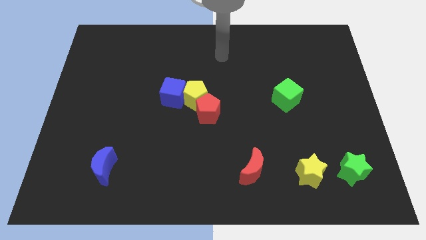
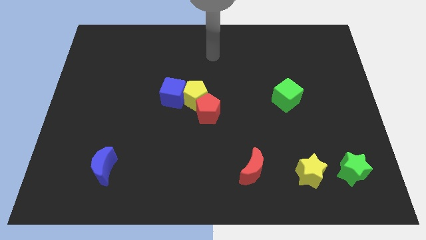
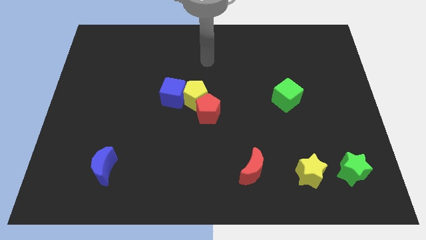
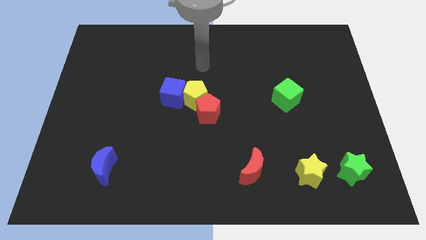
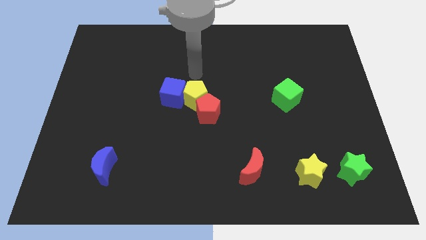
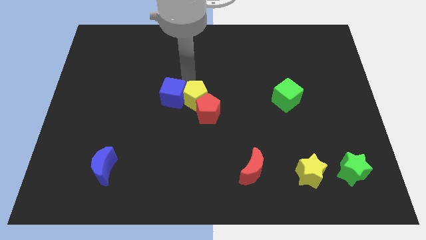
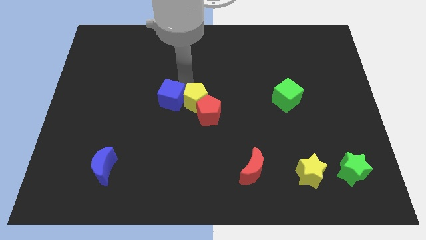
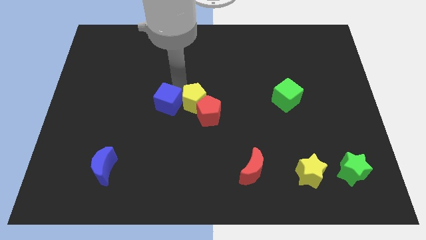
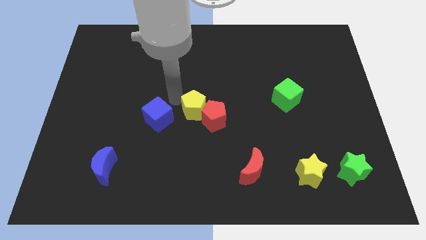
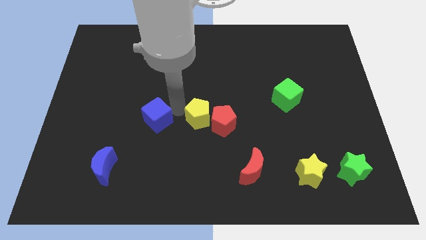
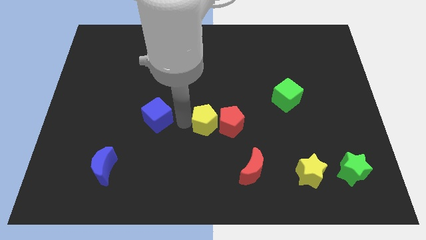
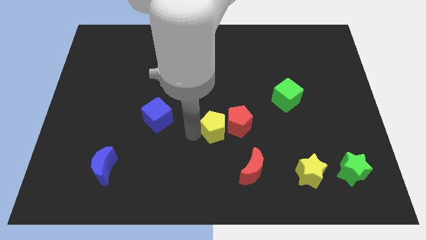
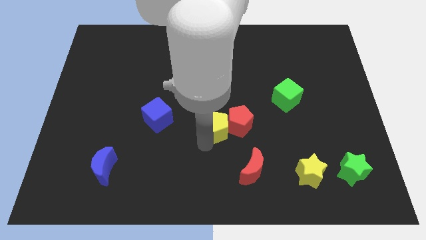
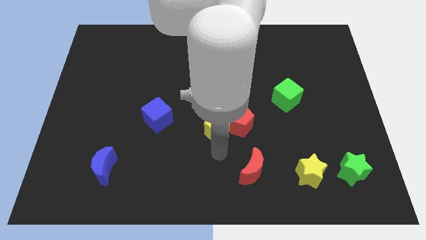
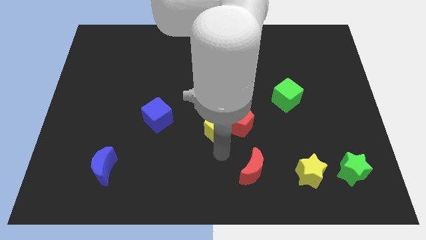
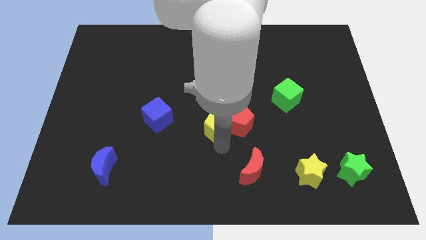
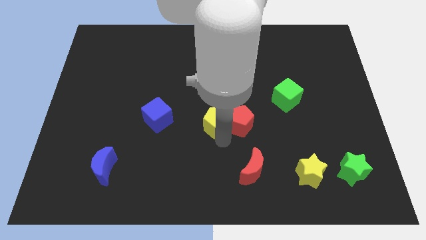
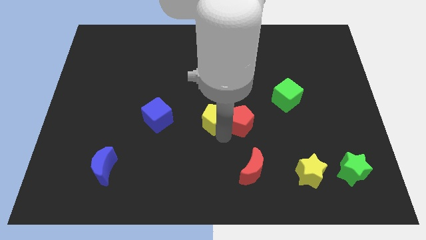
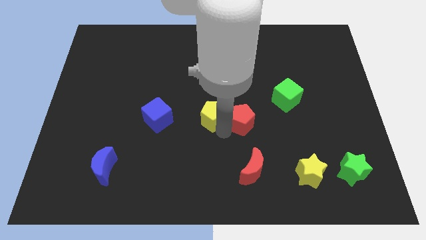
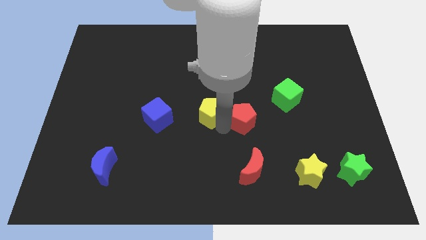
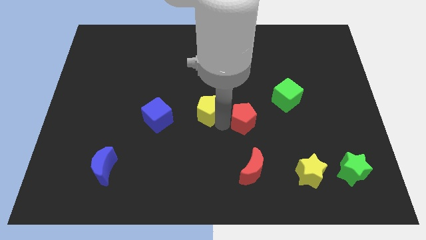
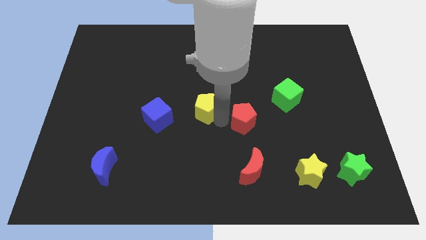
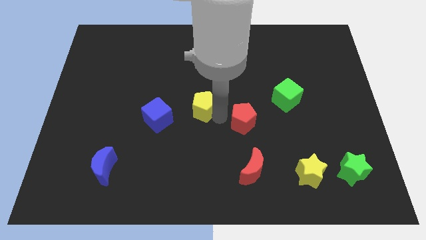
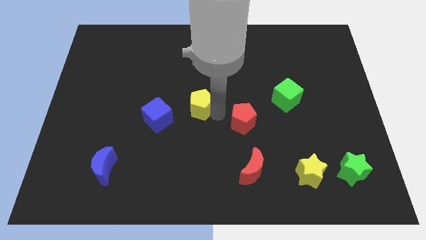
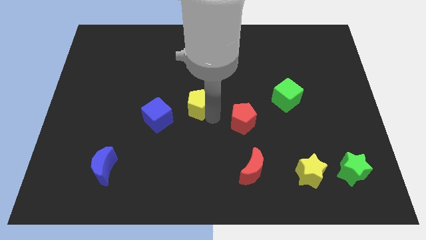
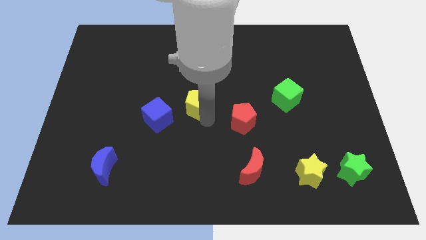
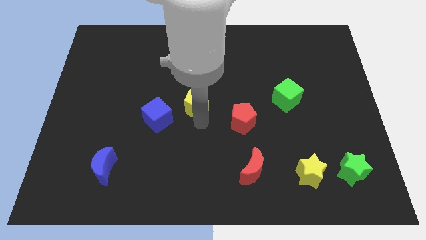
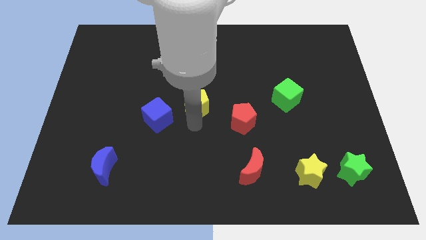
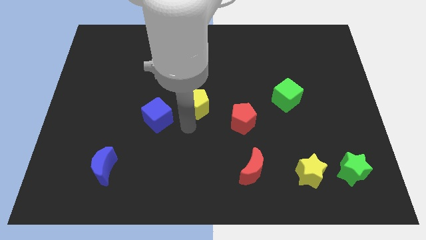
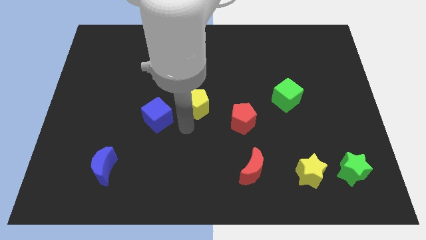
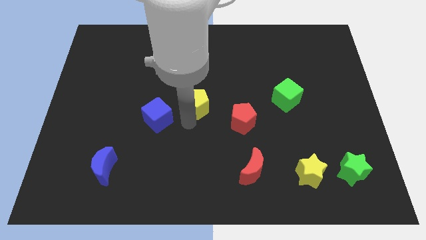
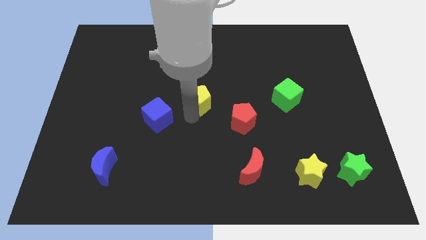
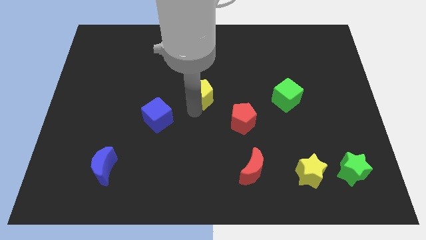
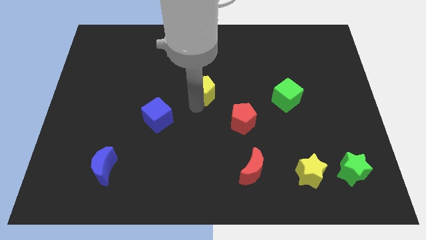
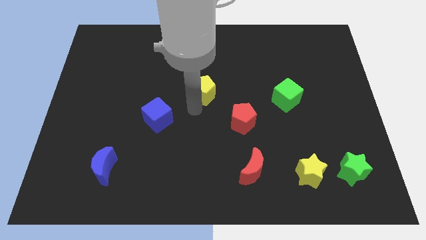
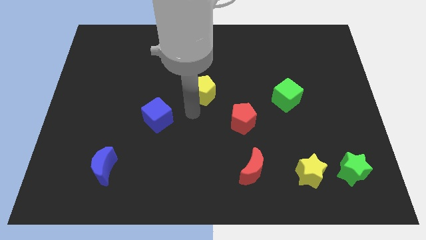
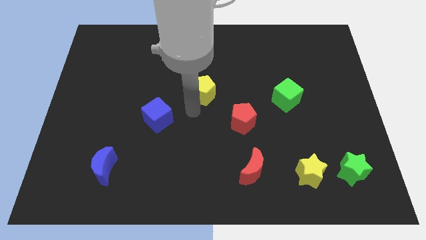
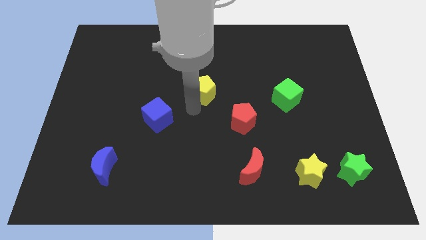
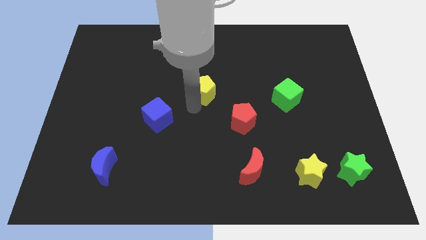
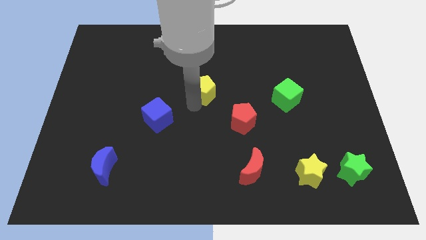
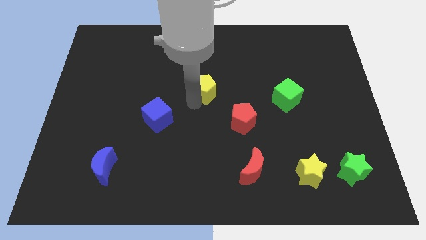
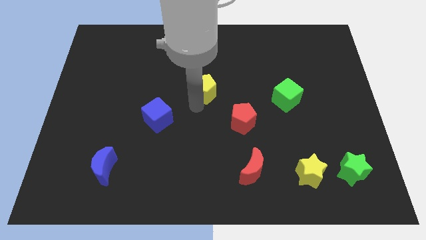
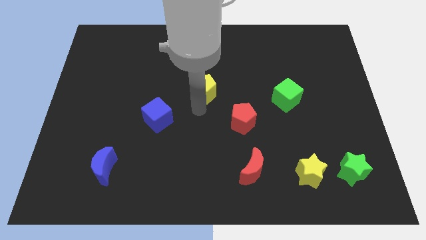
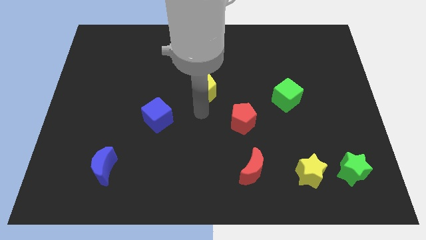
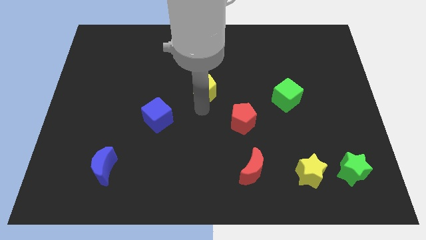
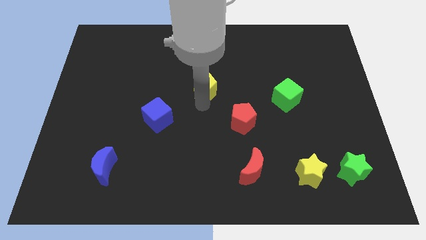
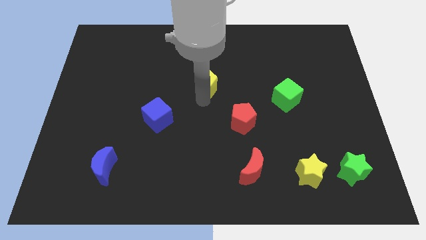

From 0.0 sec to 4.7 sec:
pull the yellow pentagon apart from the red pentagon and blue cube

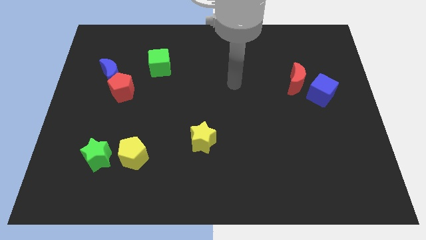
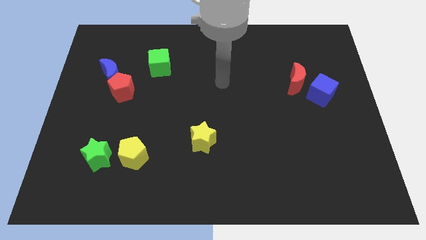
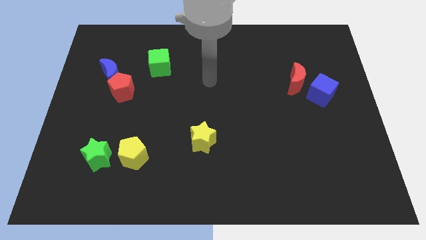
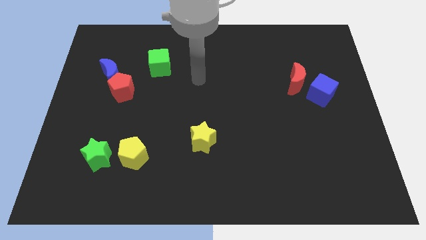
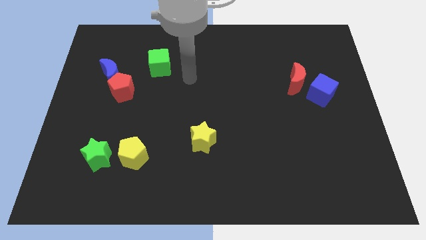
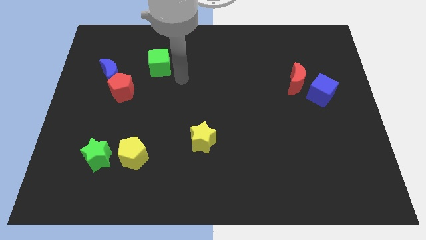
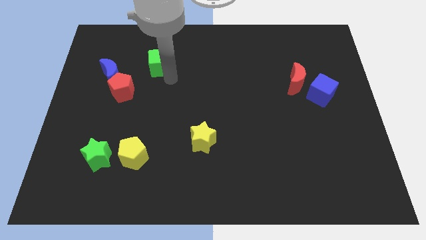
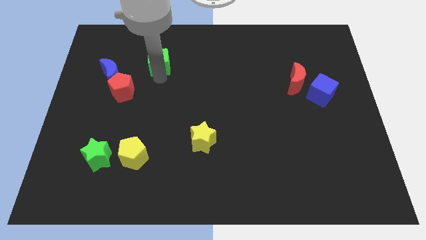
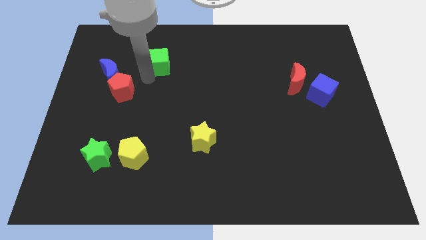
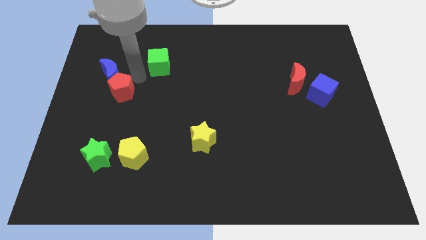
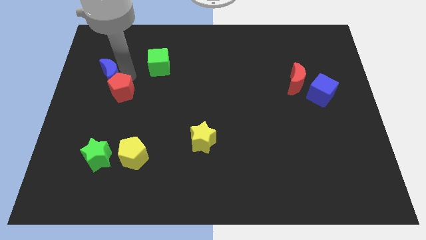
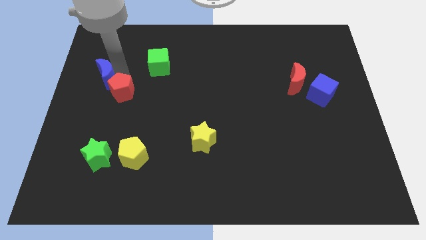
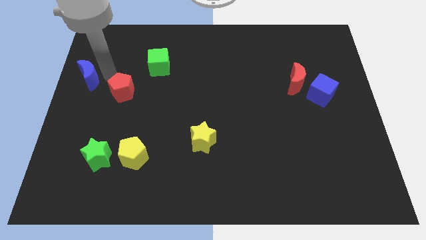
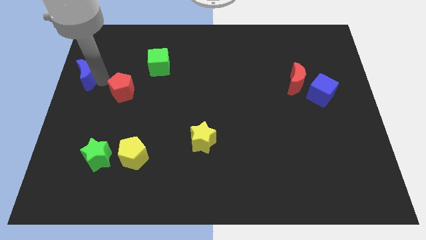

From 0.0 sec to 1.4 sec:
separate the red pentagon from the blue moon

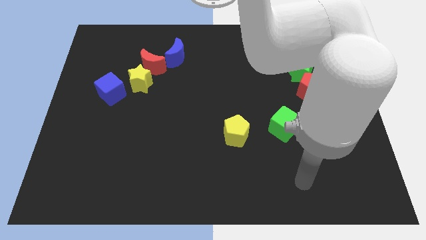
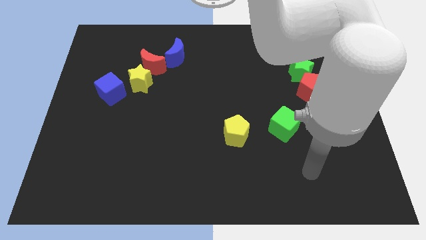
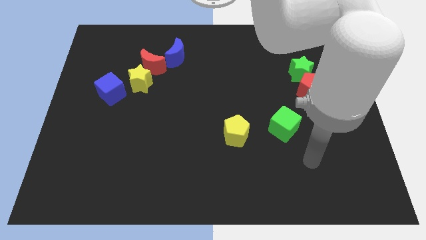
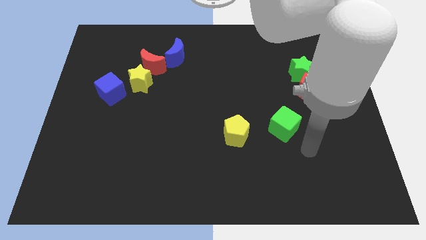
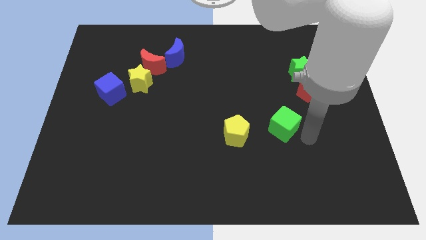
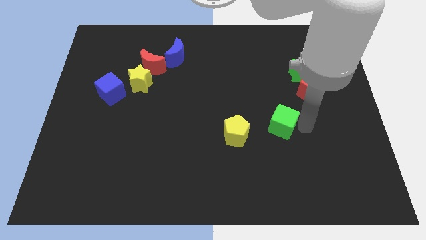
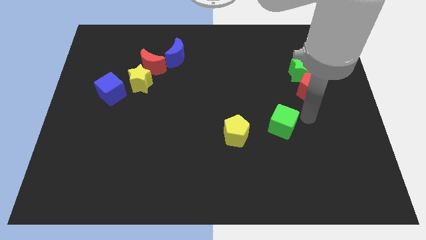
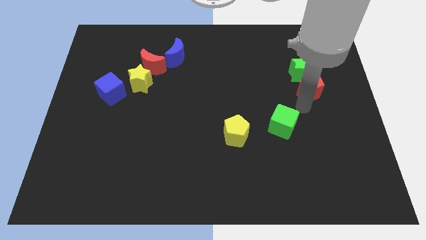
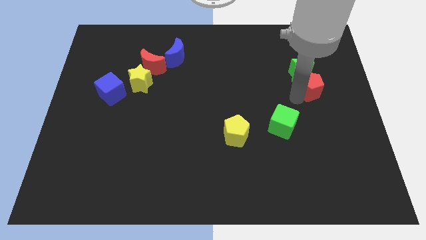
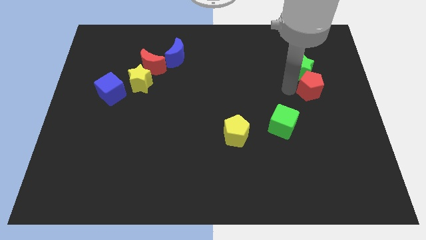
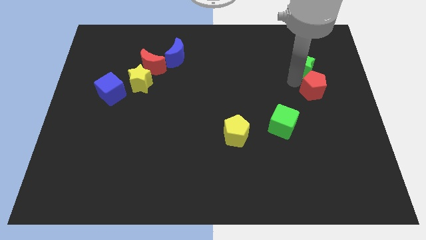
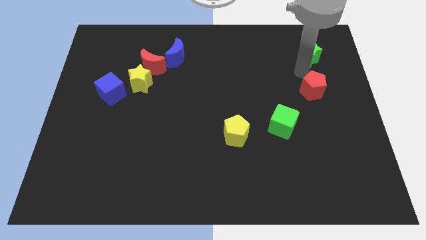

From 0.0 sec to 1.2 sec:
move the red pentagon away from the green star

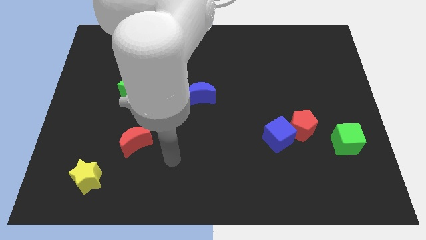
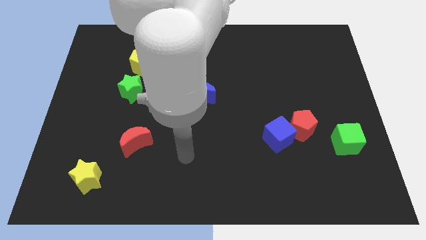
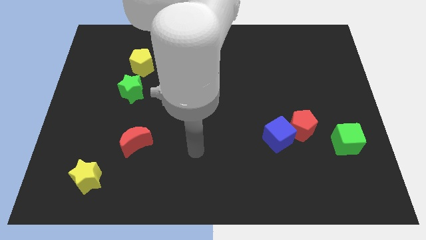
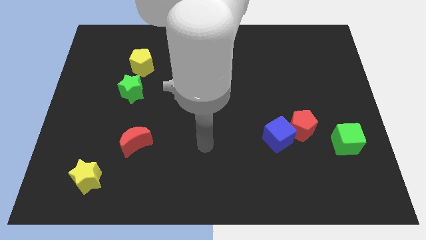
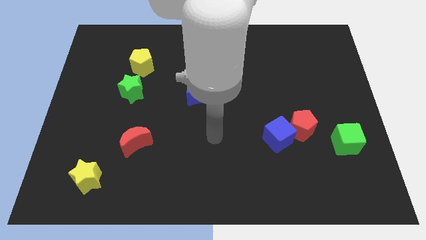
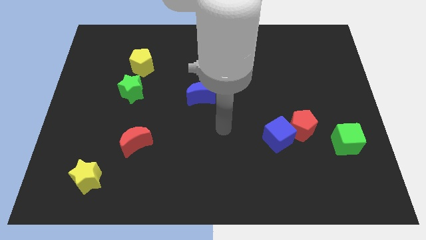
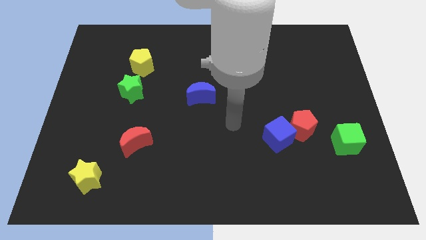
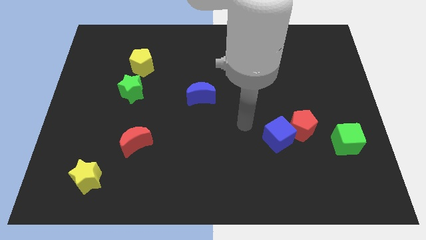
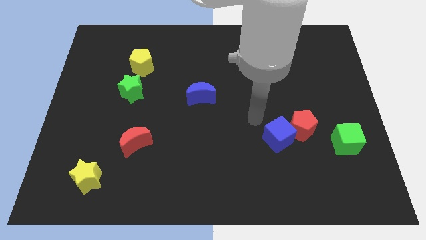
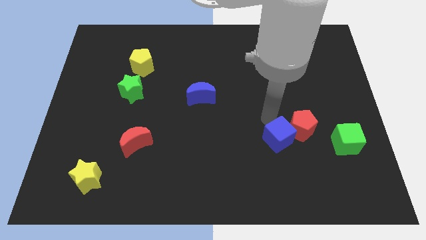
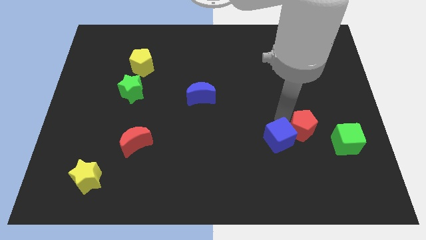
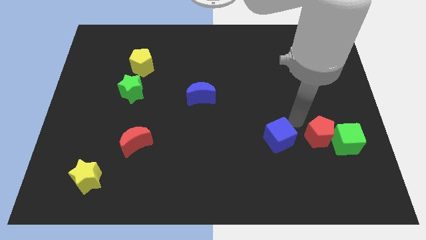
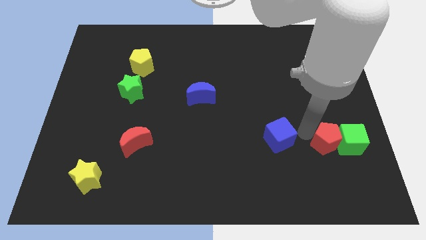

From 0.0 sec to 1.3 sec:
move the blue cube away from the red pentagon

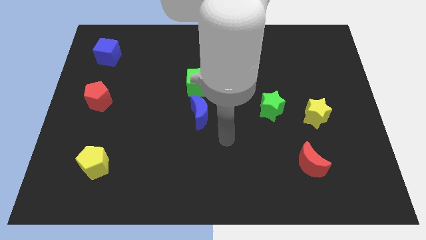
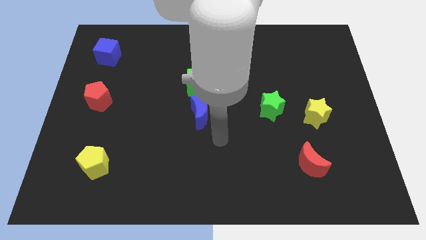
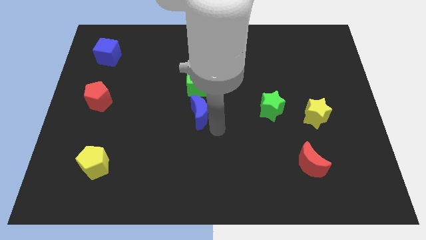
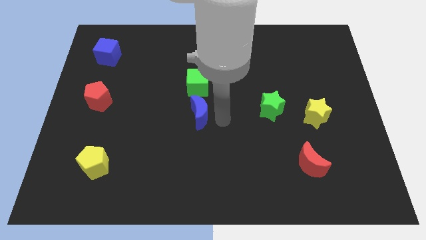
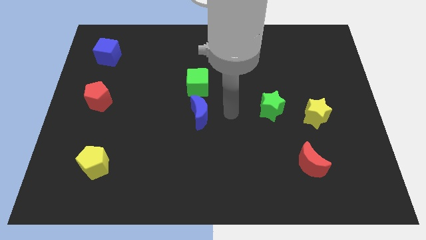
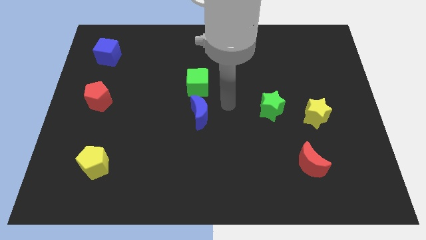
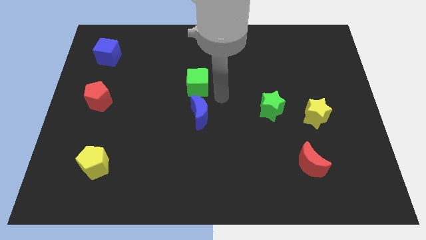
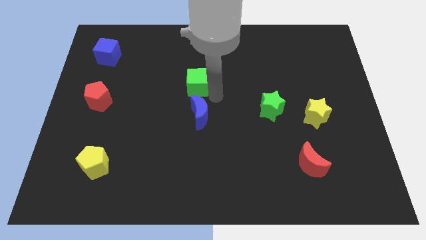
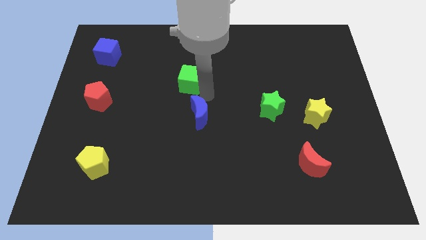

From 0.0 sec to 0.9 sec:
pull the blue moon apart from the green cube
